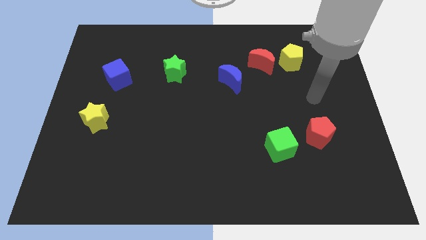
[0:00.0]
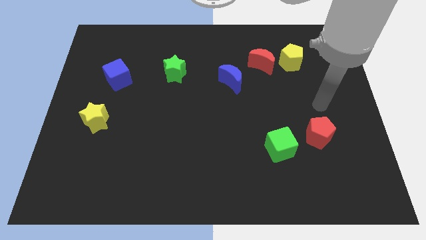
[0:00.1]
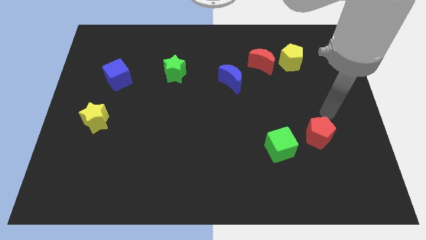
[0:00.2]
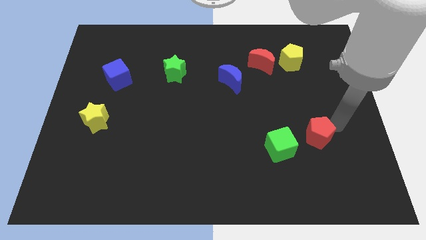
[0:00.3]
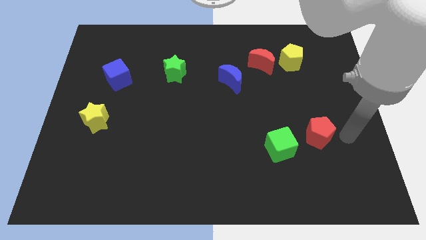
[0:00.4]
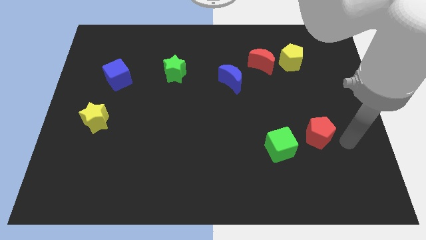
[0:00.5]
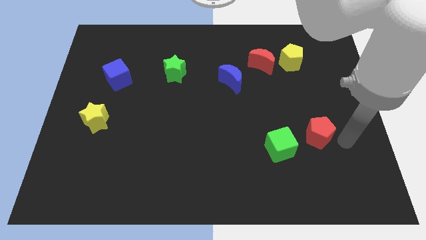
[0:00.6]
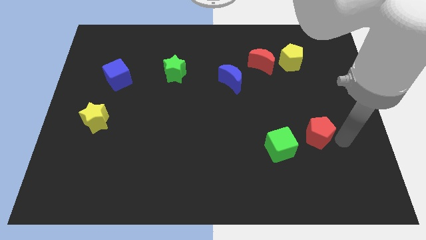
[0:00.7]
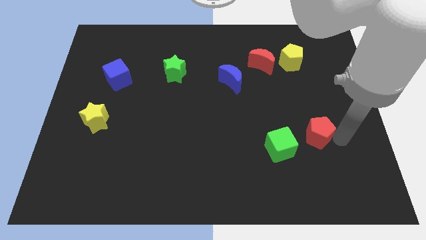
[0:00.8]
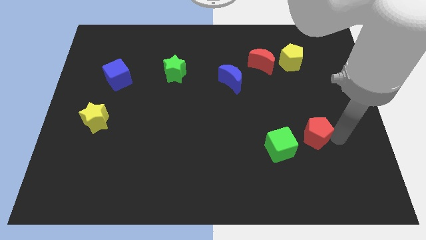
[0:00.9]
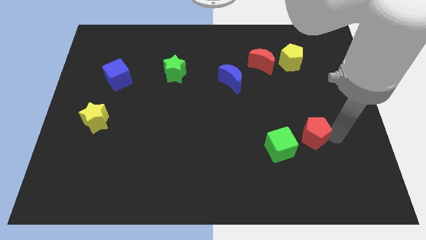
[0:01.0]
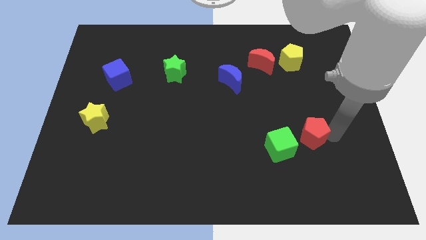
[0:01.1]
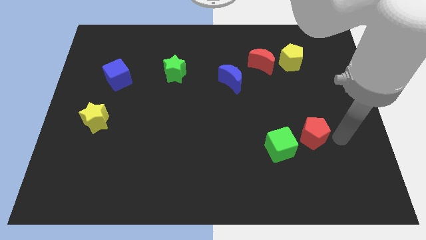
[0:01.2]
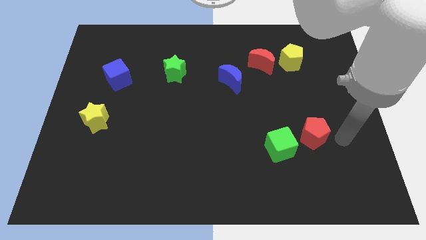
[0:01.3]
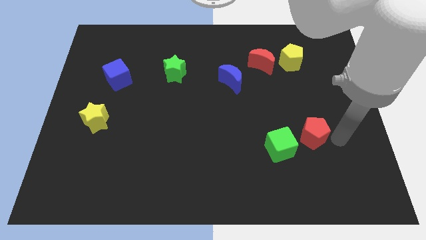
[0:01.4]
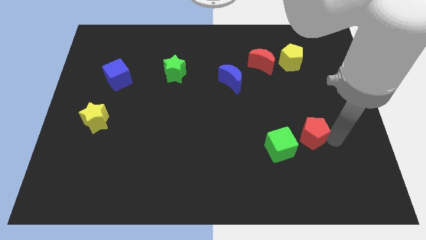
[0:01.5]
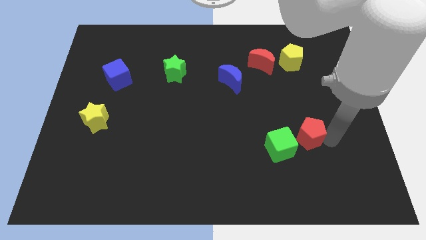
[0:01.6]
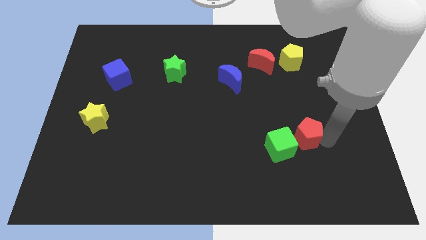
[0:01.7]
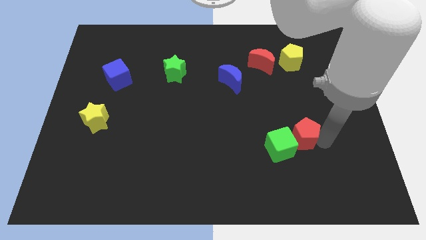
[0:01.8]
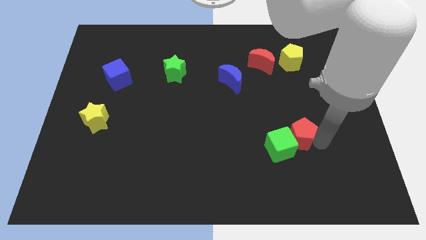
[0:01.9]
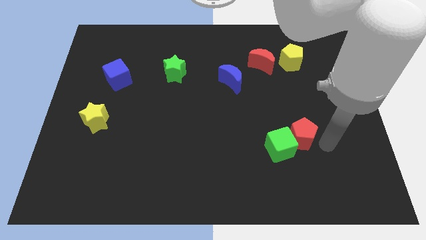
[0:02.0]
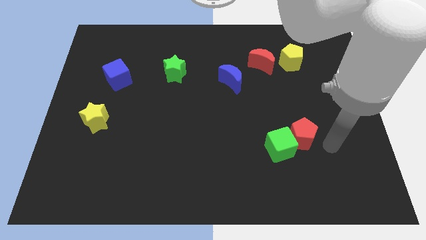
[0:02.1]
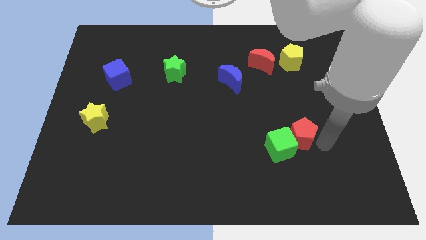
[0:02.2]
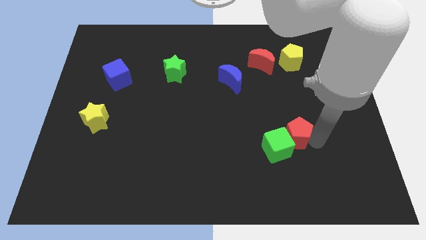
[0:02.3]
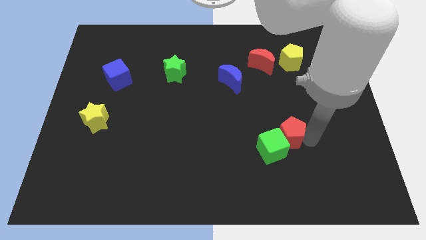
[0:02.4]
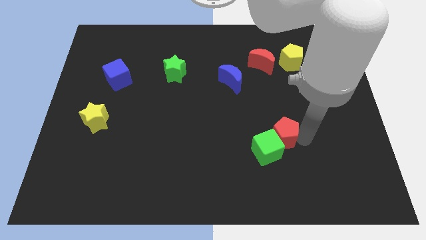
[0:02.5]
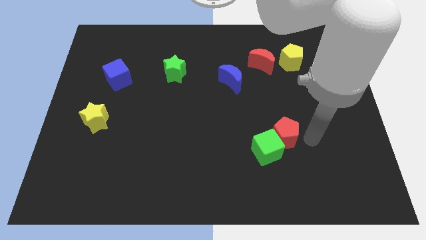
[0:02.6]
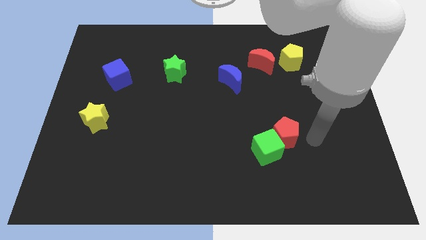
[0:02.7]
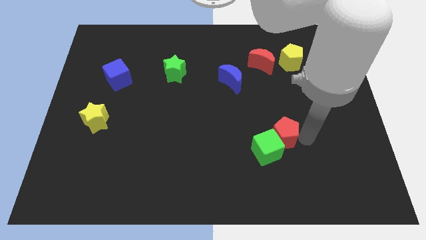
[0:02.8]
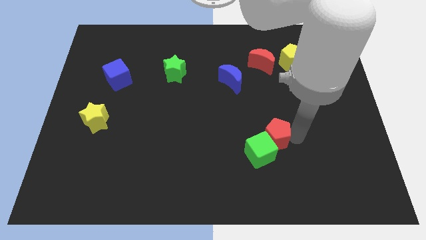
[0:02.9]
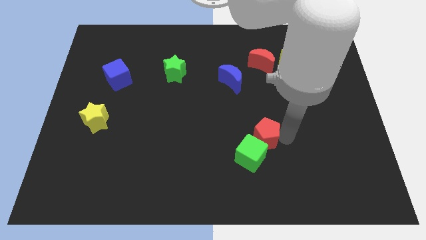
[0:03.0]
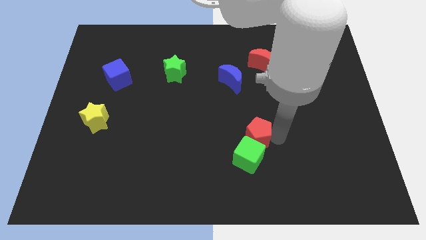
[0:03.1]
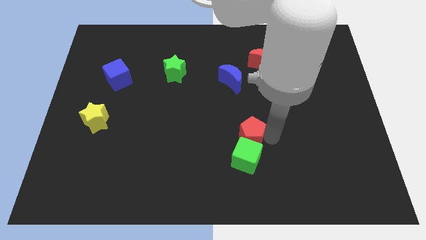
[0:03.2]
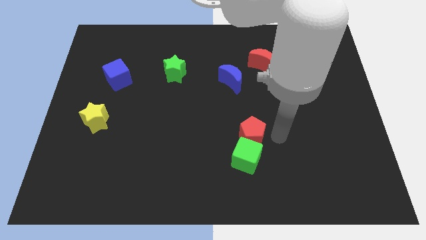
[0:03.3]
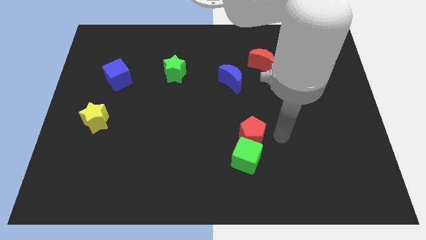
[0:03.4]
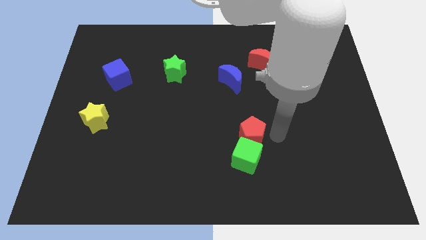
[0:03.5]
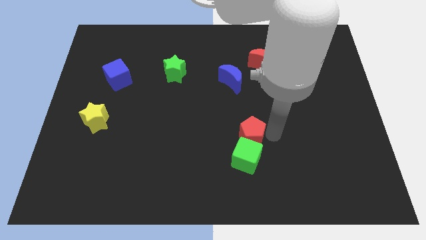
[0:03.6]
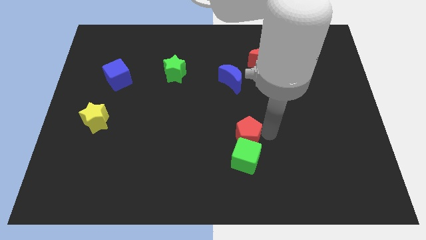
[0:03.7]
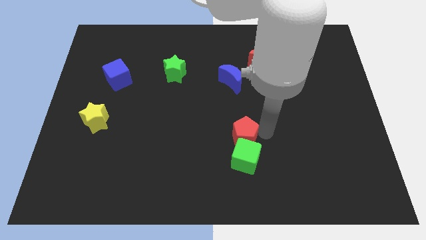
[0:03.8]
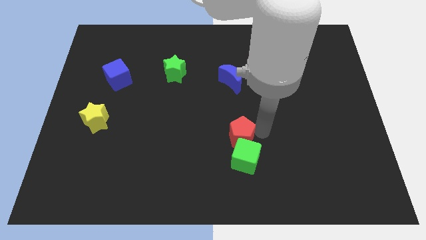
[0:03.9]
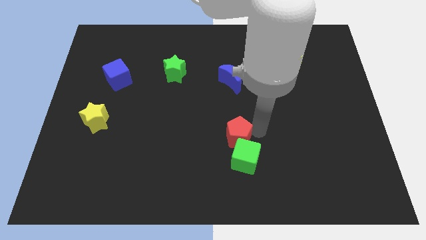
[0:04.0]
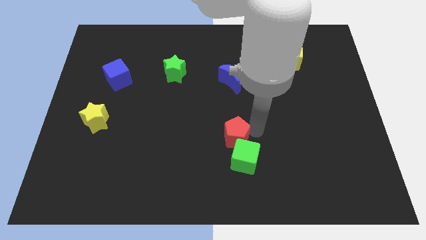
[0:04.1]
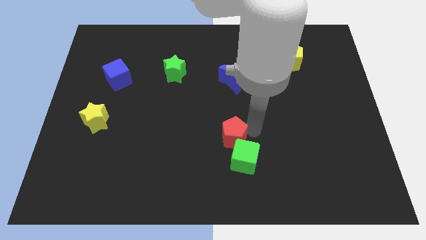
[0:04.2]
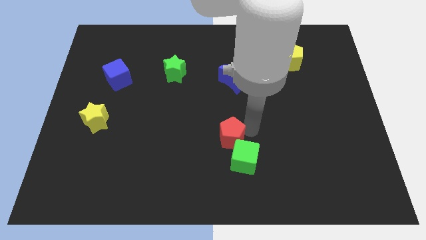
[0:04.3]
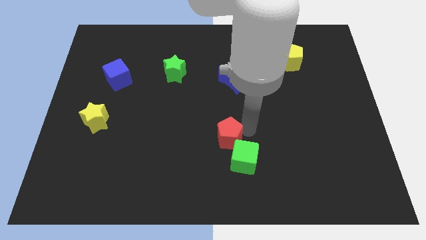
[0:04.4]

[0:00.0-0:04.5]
move the red pentagon left

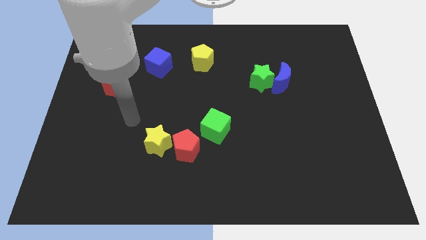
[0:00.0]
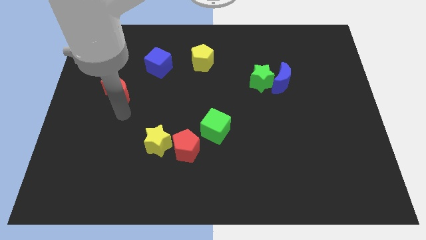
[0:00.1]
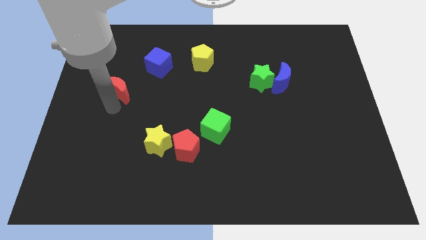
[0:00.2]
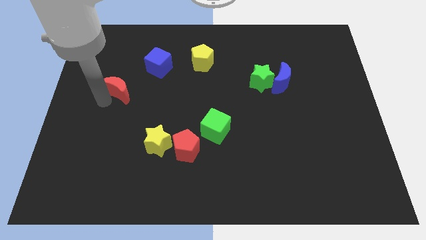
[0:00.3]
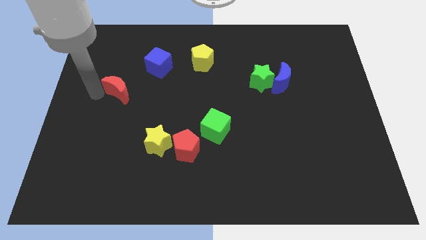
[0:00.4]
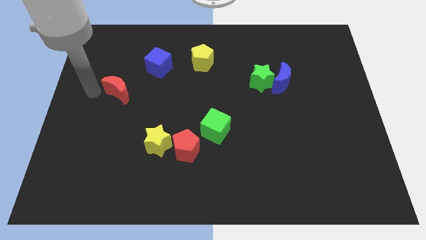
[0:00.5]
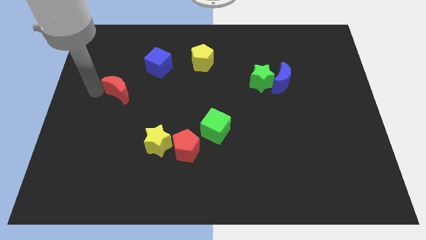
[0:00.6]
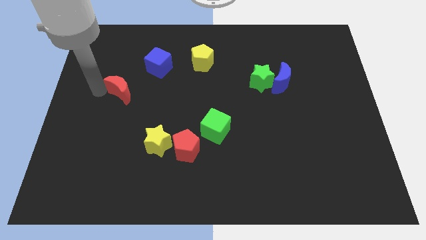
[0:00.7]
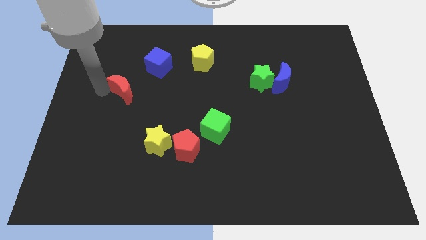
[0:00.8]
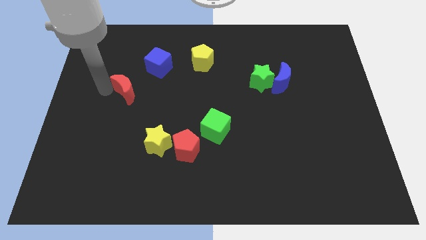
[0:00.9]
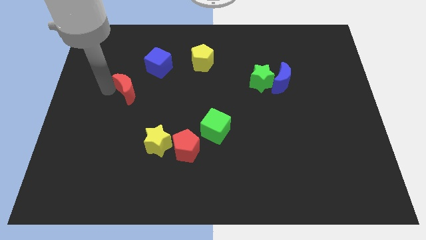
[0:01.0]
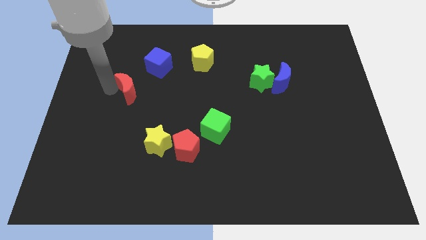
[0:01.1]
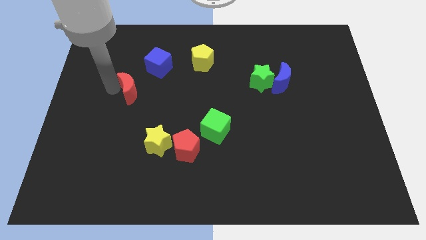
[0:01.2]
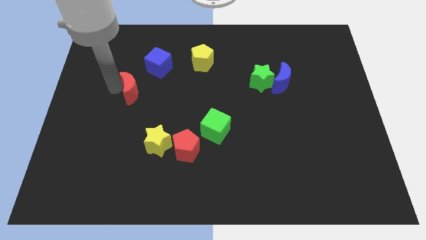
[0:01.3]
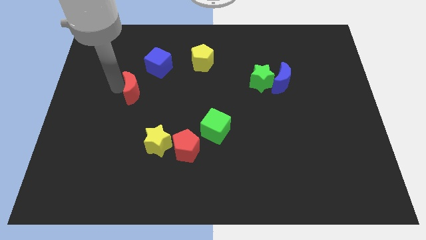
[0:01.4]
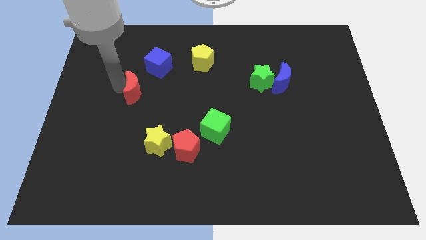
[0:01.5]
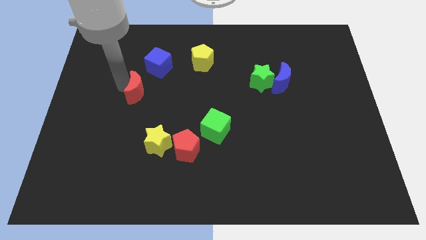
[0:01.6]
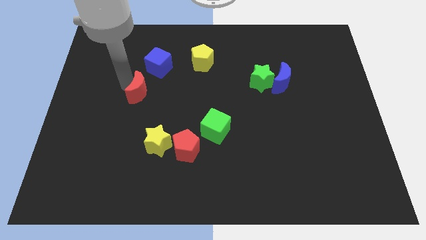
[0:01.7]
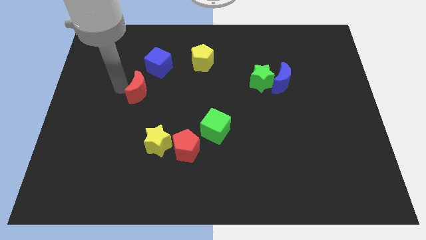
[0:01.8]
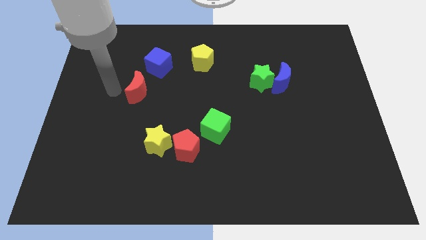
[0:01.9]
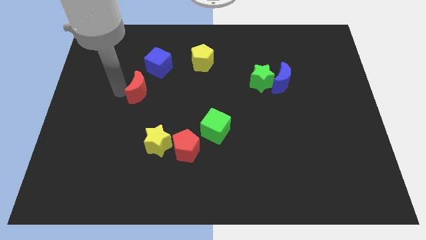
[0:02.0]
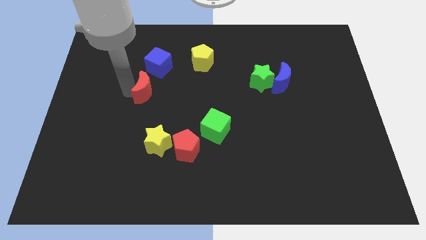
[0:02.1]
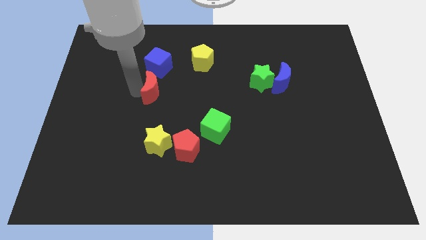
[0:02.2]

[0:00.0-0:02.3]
move the red moon to the right a little

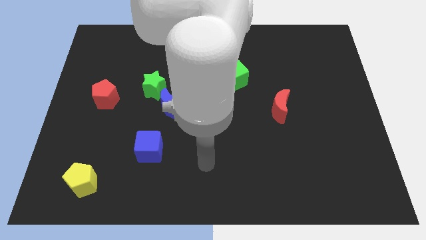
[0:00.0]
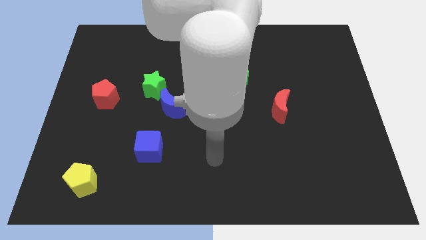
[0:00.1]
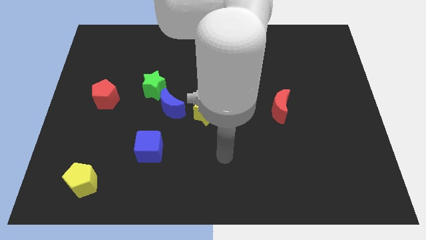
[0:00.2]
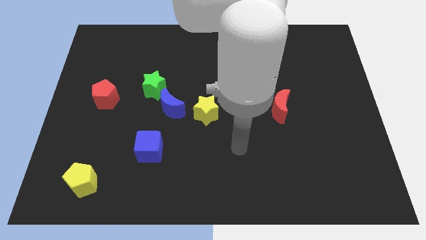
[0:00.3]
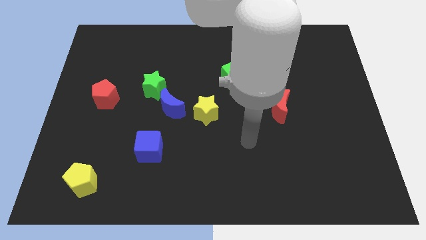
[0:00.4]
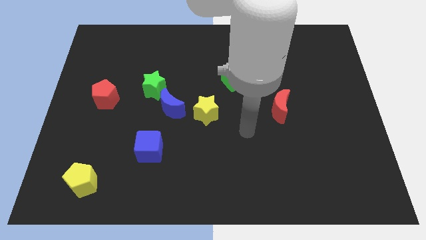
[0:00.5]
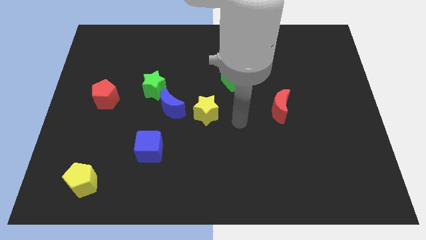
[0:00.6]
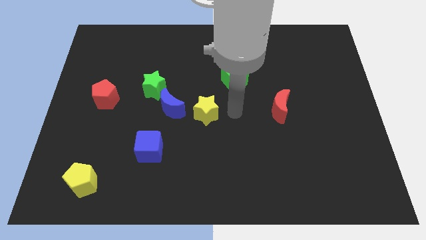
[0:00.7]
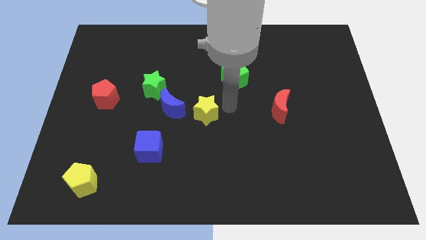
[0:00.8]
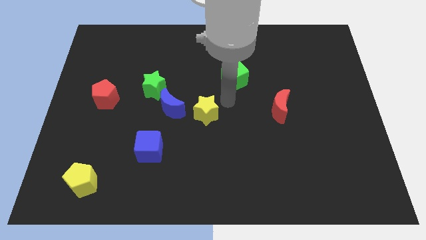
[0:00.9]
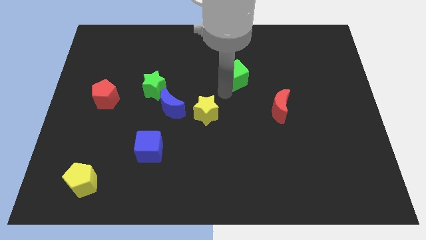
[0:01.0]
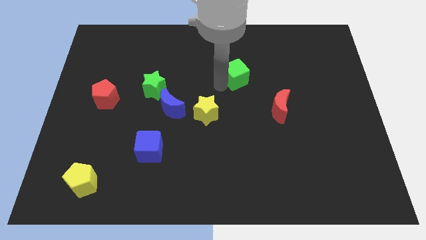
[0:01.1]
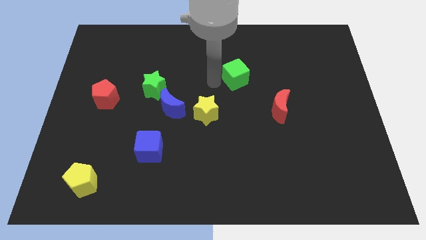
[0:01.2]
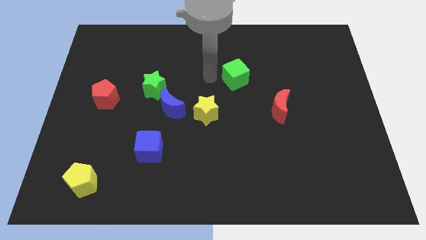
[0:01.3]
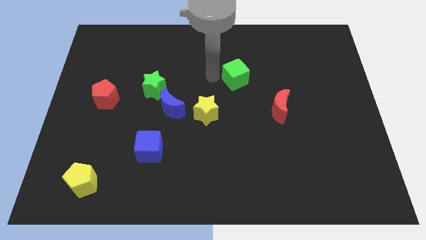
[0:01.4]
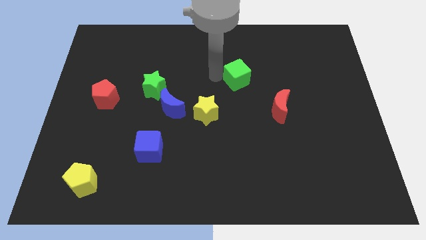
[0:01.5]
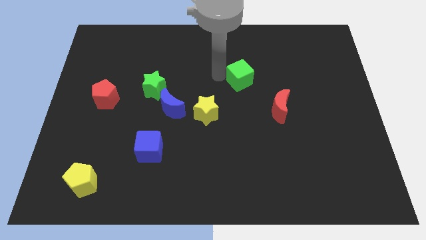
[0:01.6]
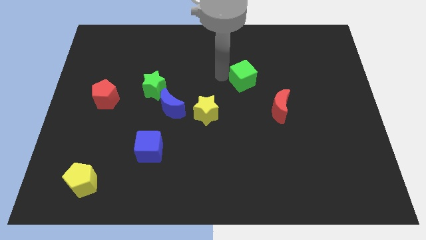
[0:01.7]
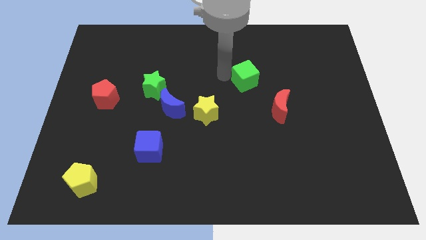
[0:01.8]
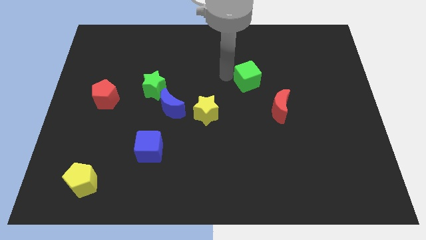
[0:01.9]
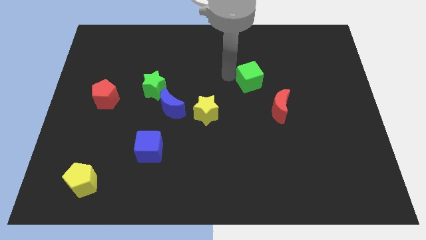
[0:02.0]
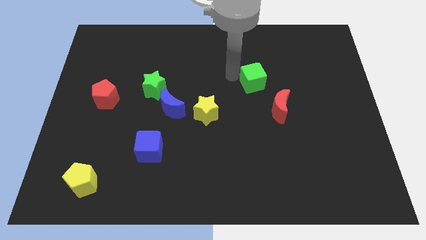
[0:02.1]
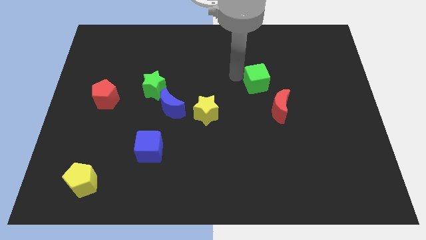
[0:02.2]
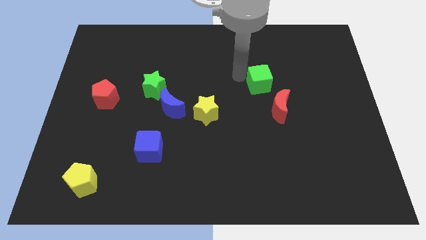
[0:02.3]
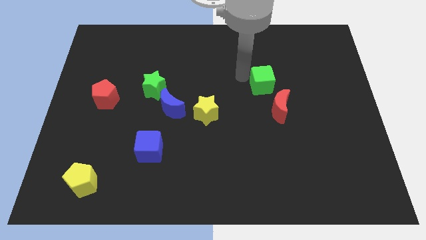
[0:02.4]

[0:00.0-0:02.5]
slightly push the green cube to the right
